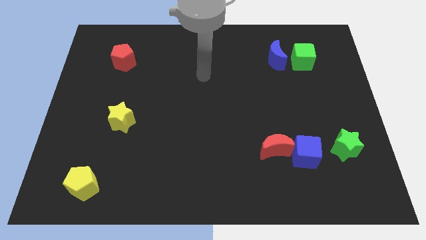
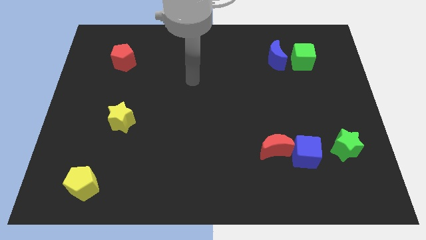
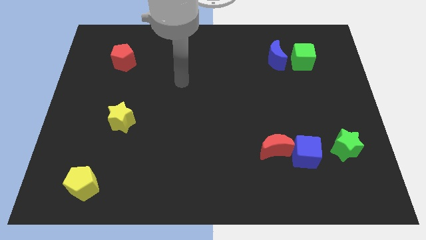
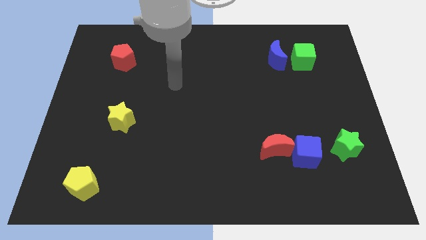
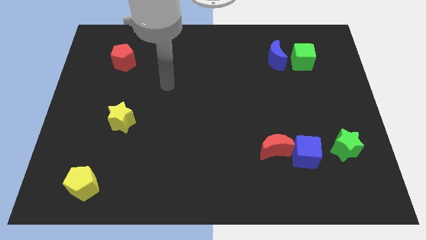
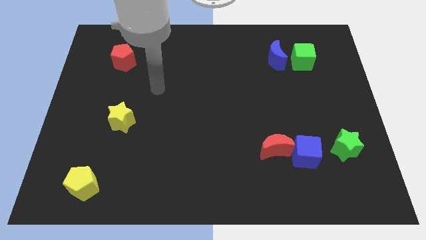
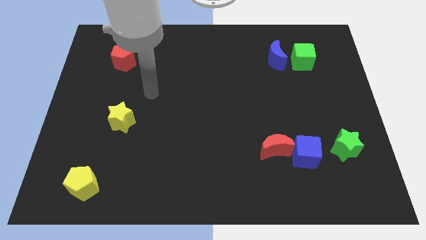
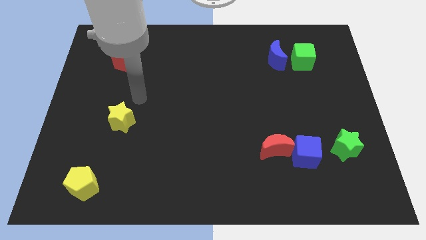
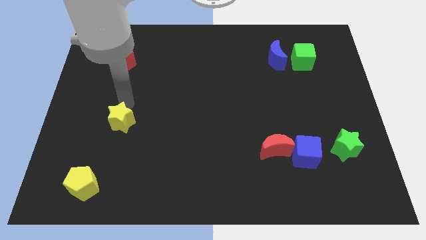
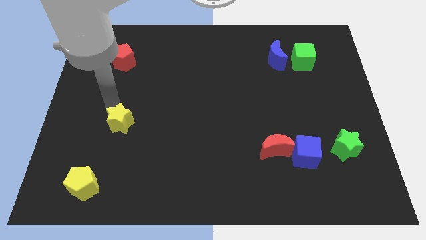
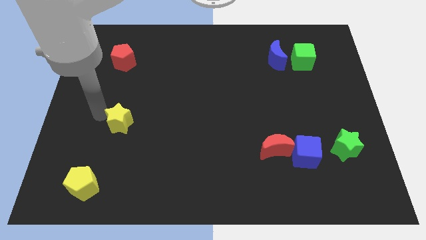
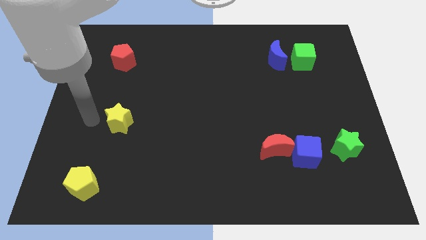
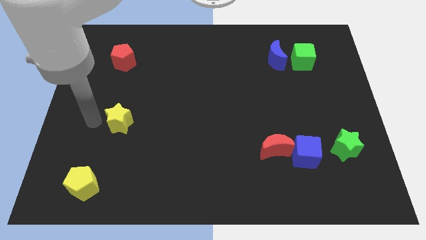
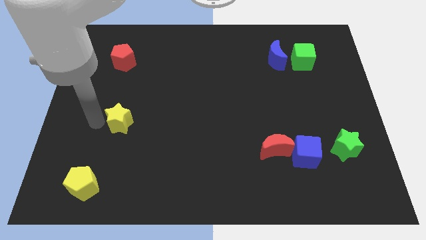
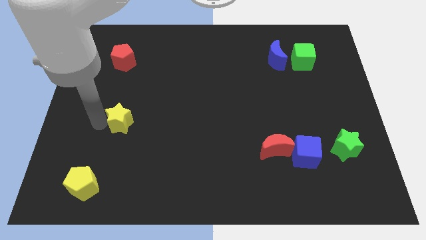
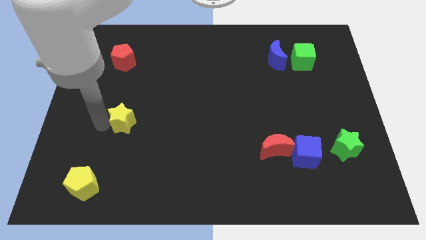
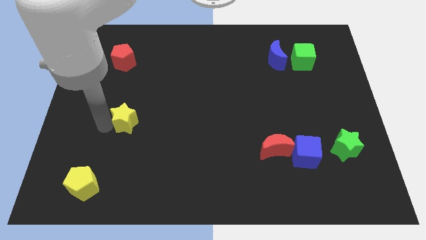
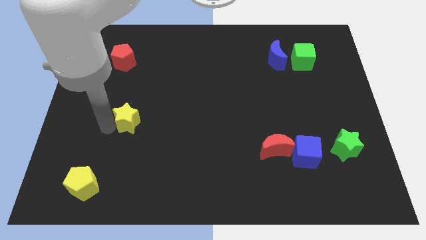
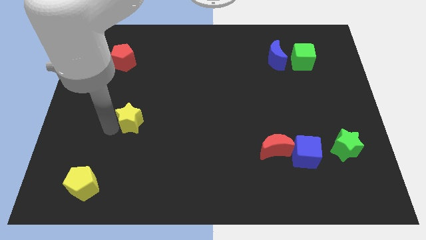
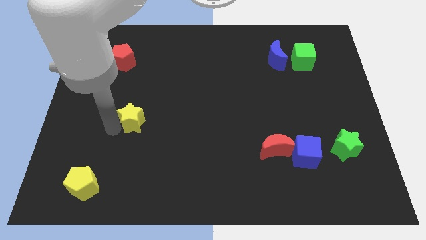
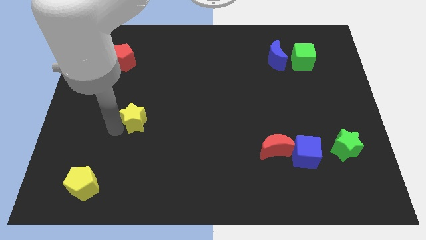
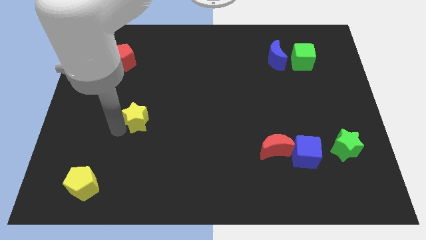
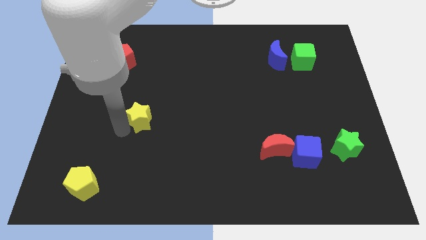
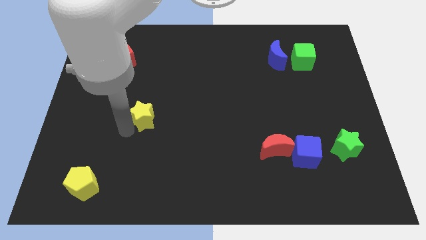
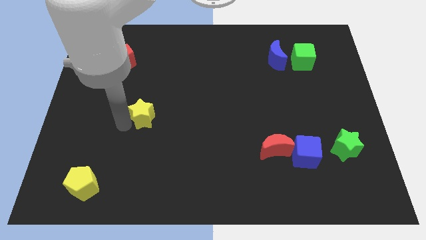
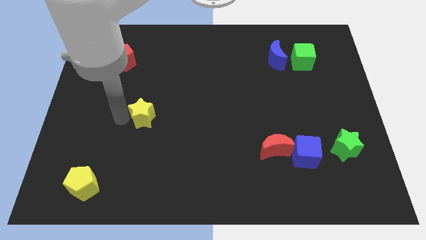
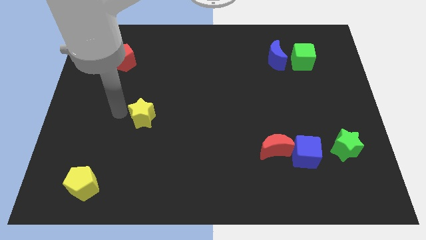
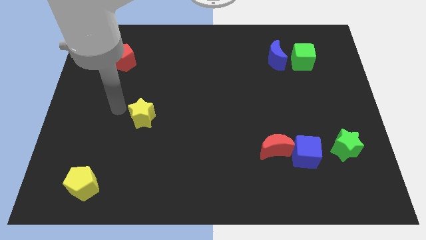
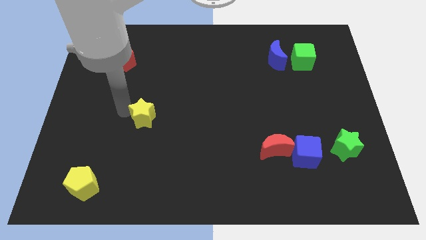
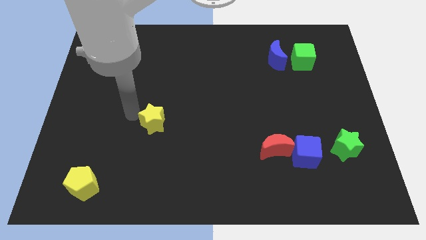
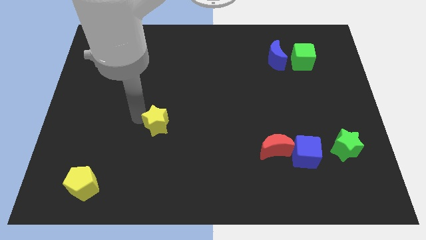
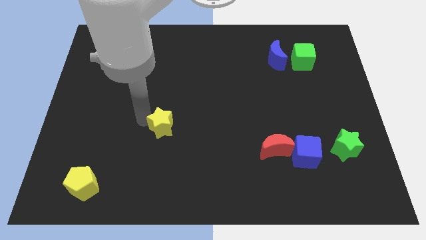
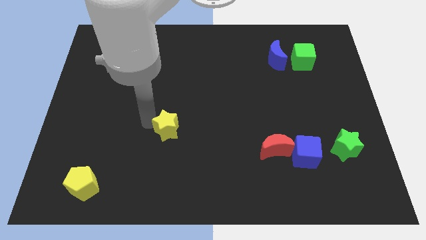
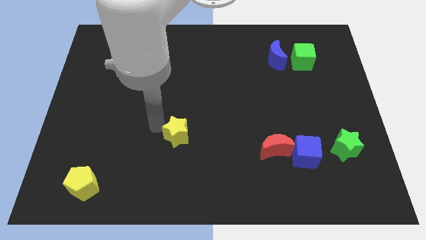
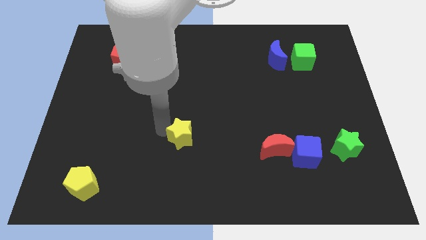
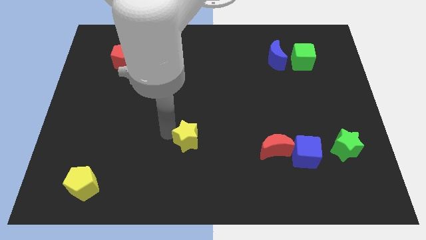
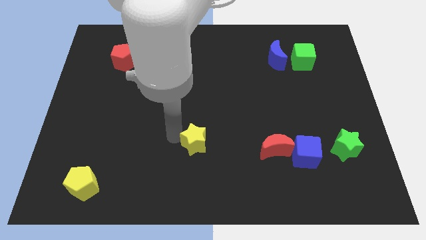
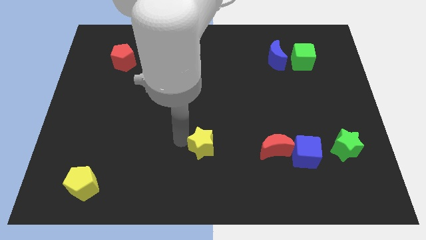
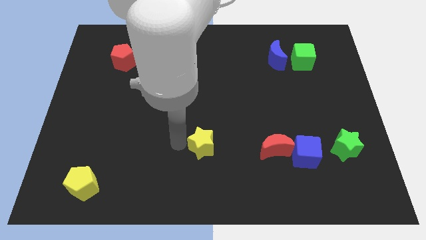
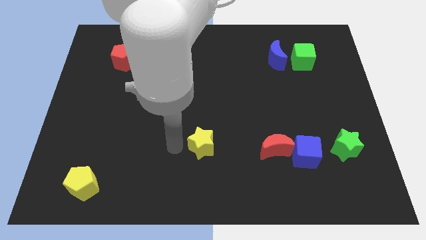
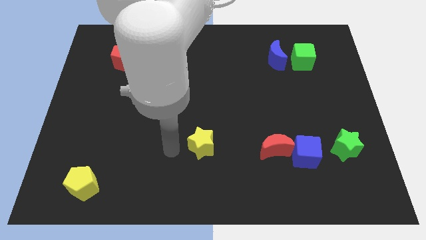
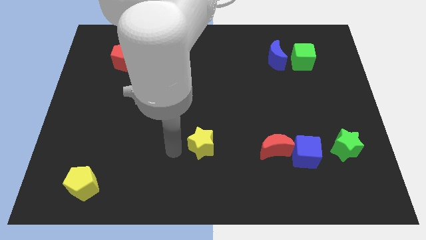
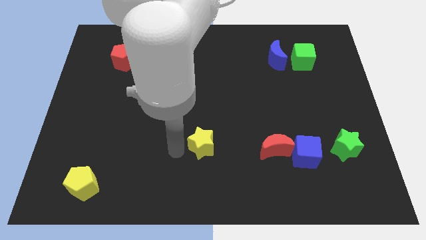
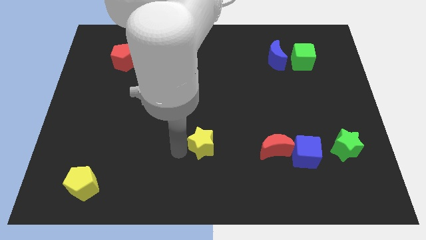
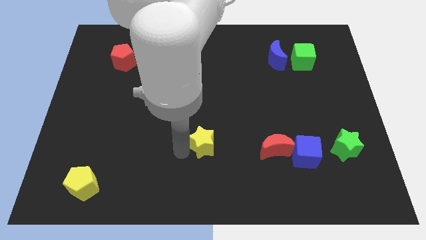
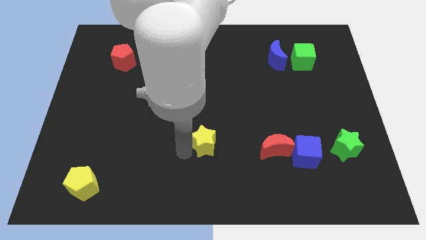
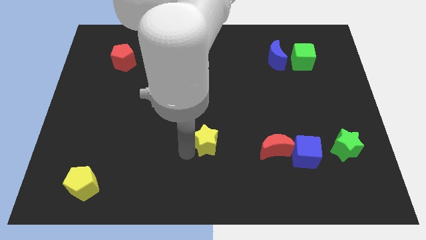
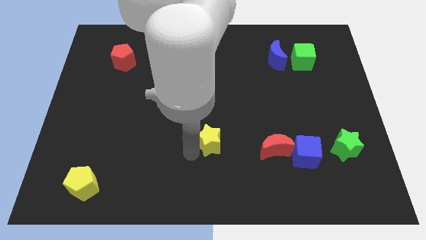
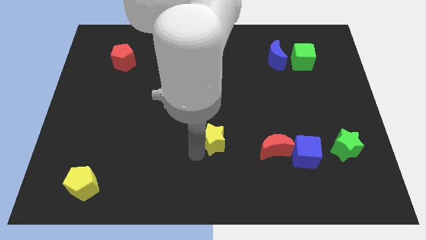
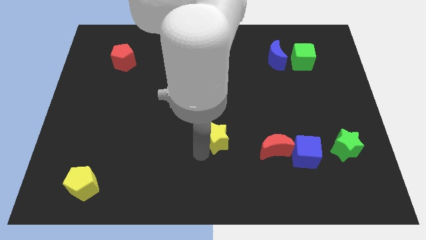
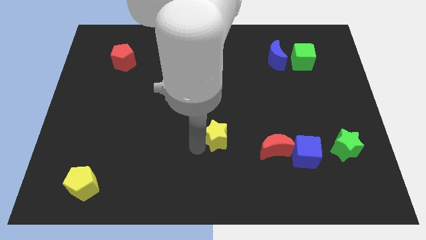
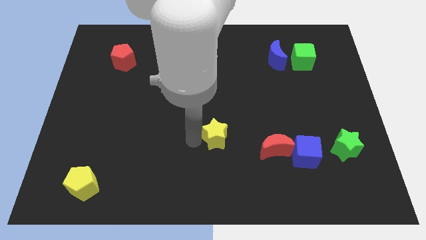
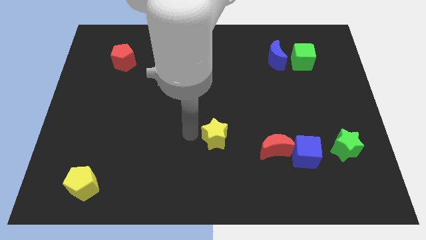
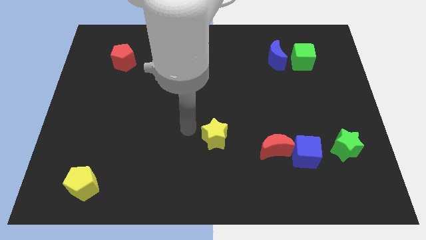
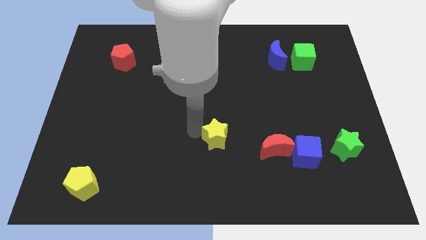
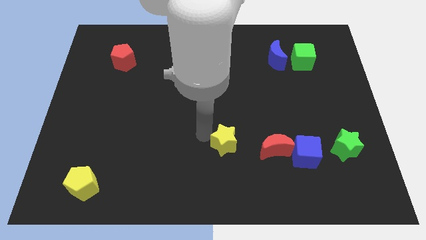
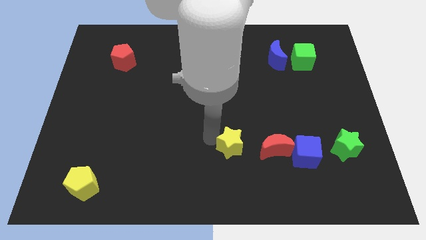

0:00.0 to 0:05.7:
push the yellow star to the left of the blue cube

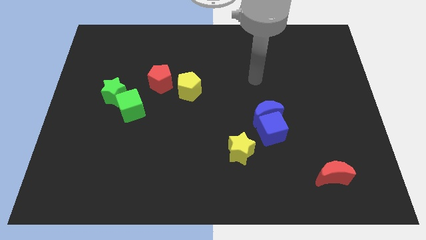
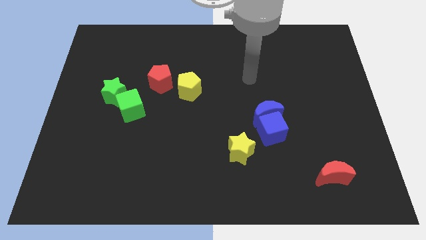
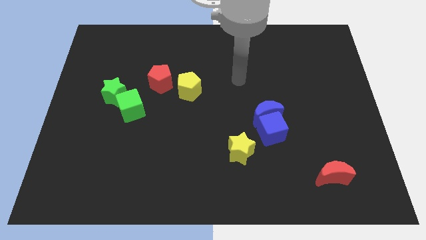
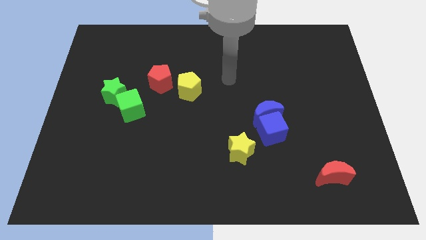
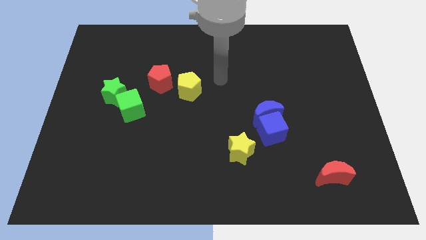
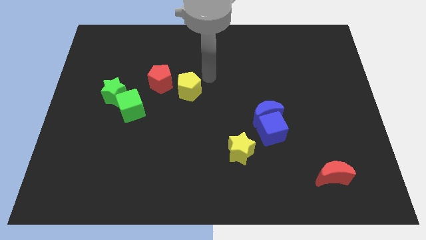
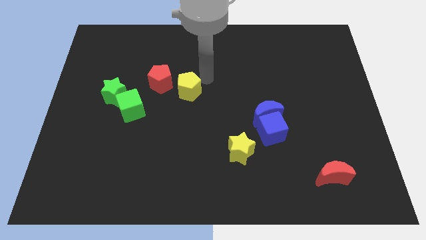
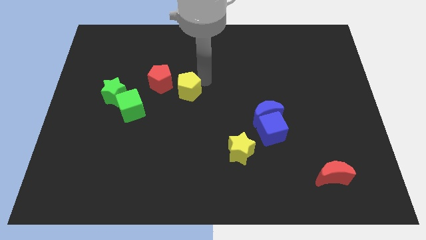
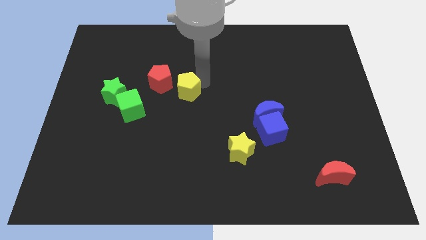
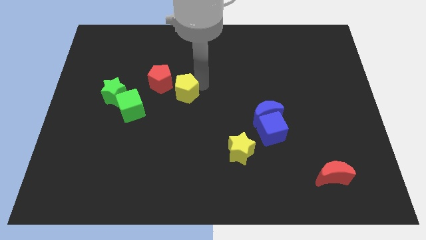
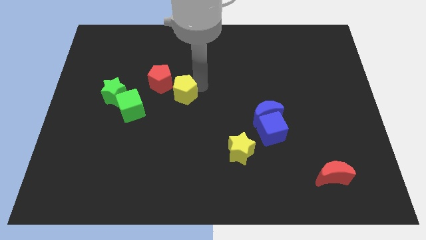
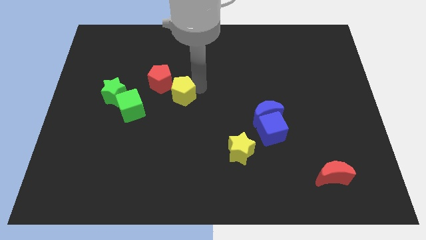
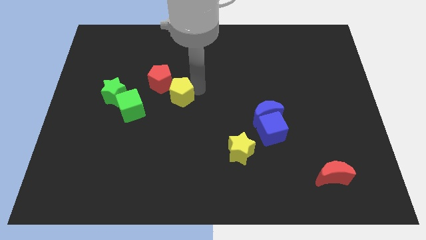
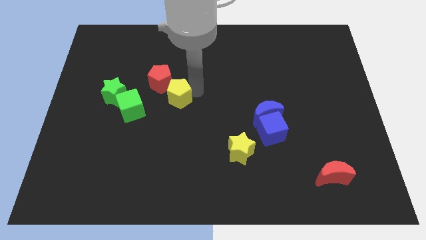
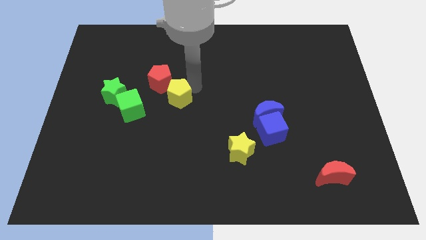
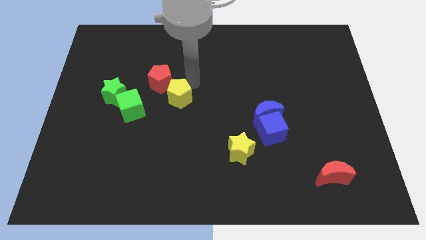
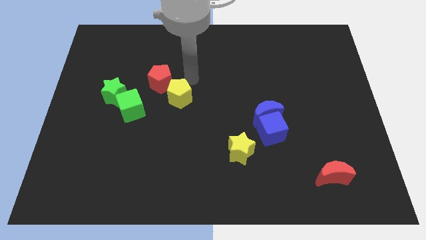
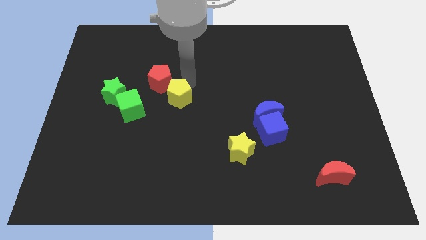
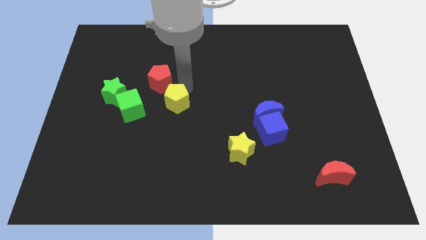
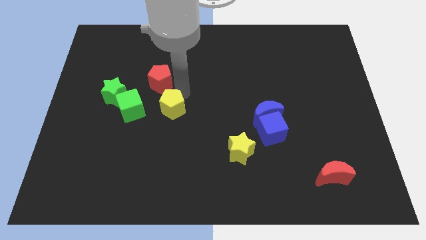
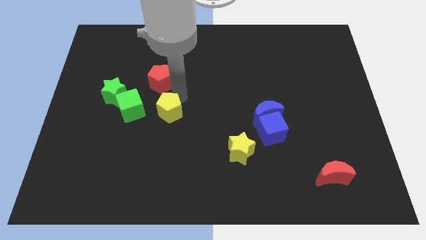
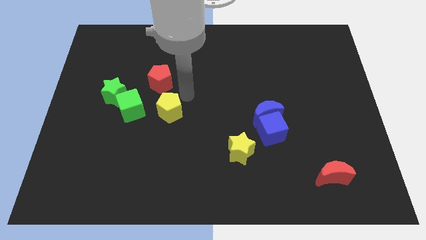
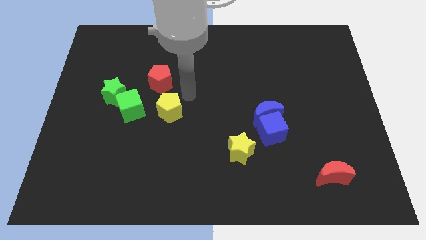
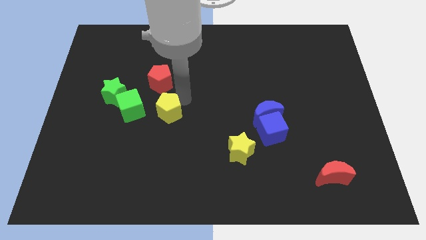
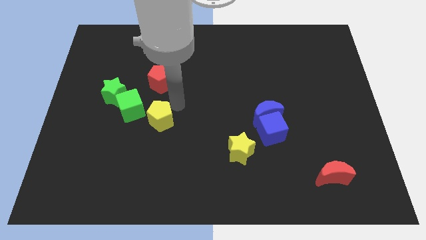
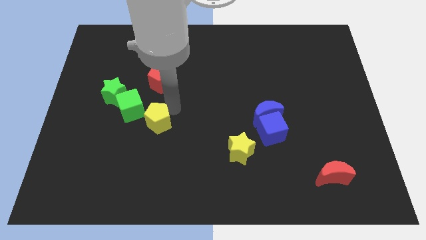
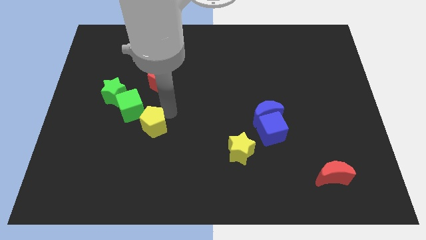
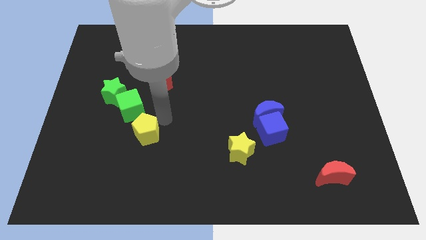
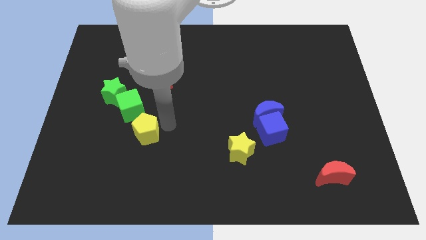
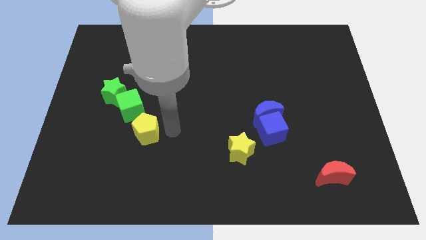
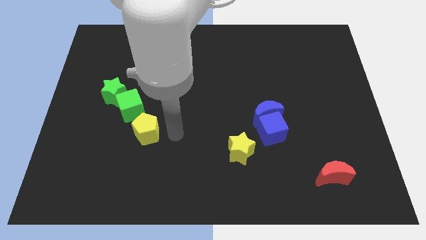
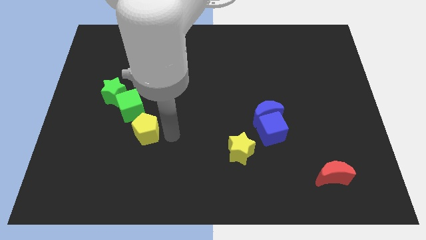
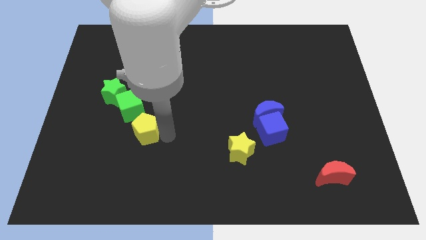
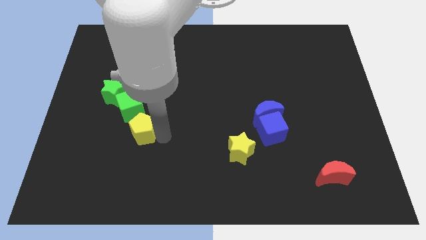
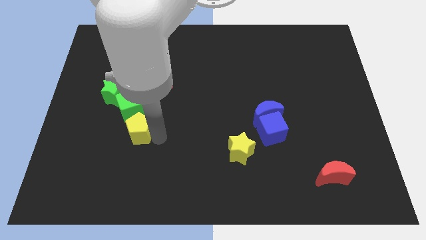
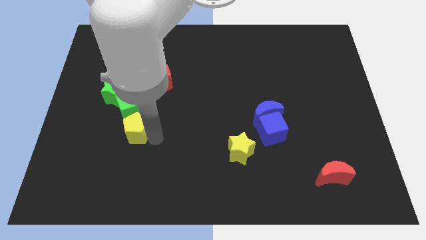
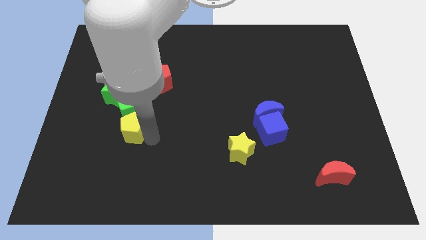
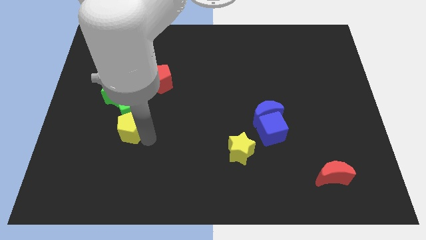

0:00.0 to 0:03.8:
move the yellow pentagon below the green star
